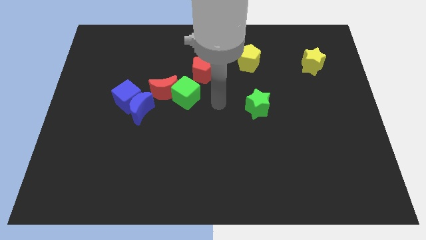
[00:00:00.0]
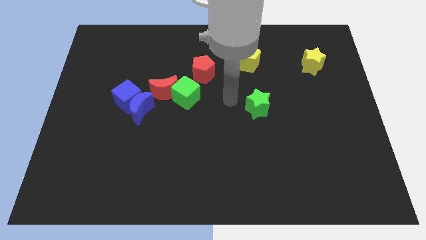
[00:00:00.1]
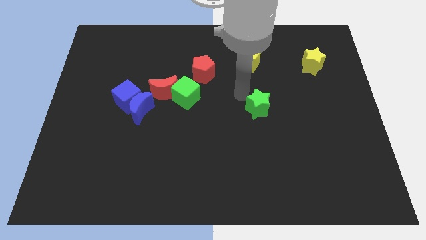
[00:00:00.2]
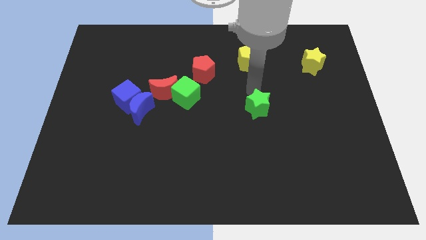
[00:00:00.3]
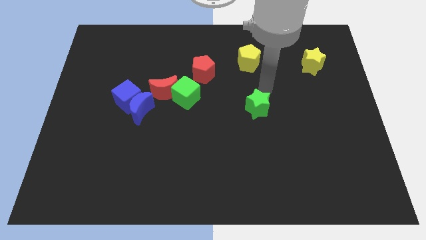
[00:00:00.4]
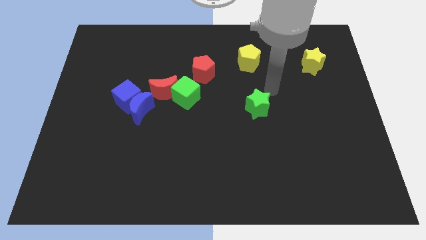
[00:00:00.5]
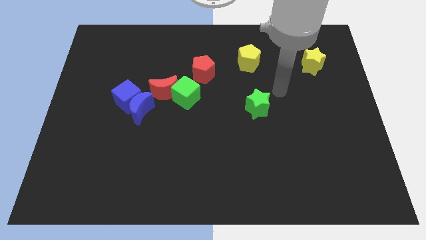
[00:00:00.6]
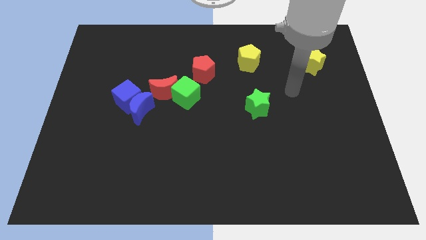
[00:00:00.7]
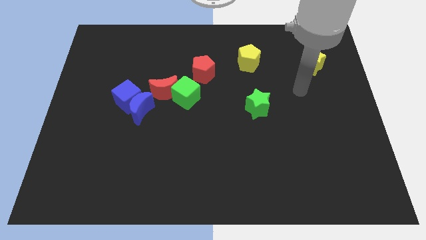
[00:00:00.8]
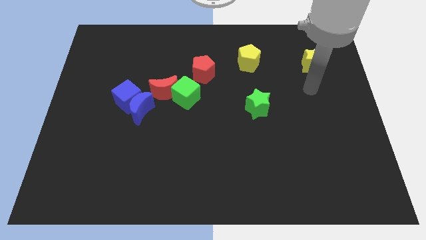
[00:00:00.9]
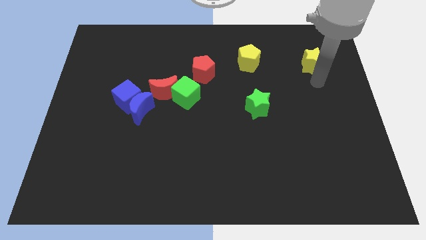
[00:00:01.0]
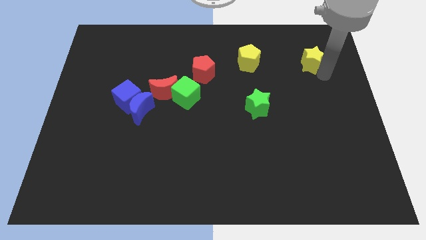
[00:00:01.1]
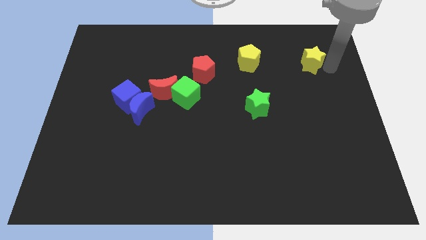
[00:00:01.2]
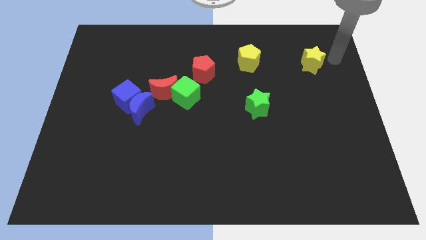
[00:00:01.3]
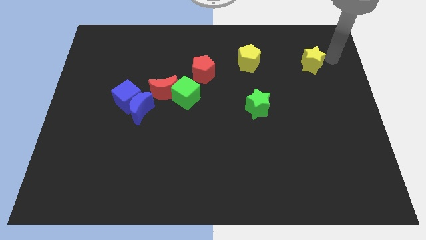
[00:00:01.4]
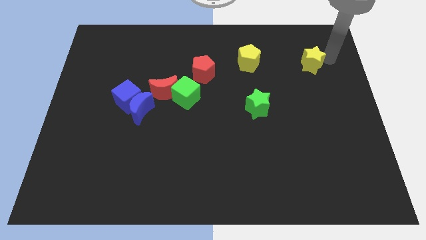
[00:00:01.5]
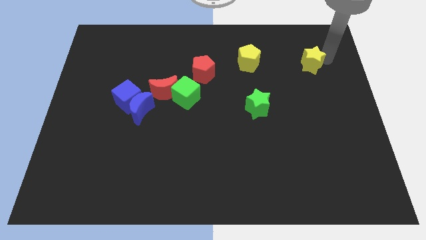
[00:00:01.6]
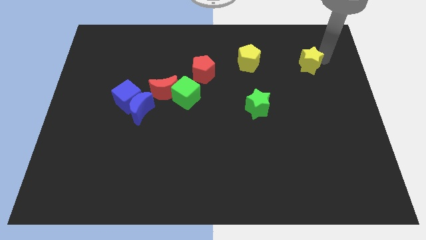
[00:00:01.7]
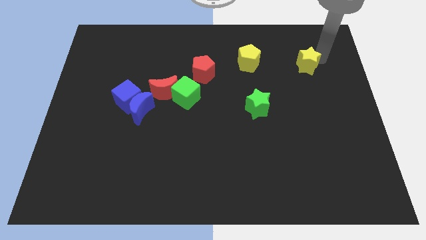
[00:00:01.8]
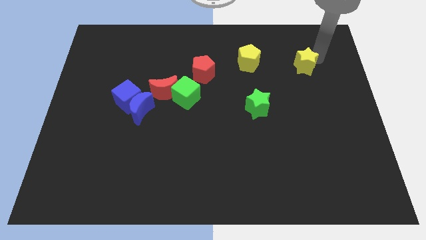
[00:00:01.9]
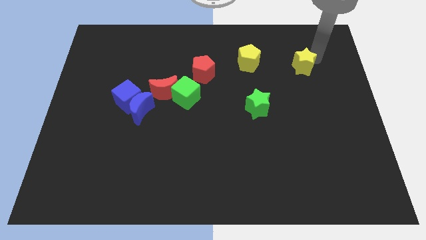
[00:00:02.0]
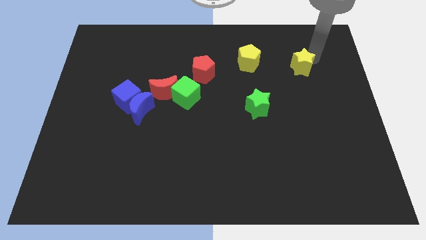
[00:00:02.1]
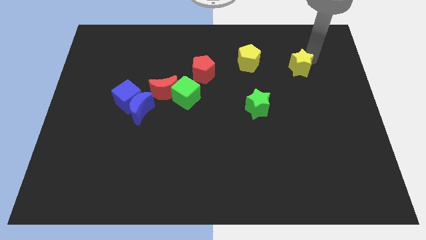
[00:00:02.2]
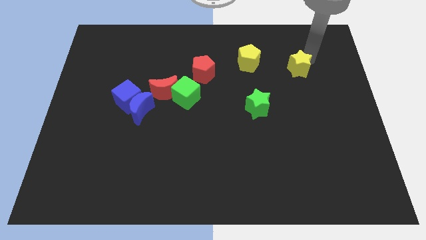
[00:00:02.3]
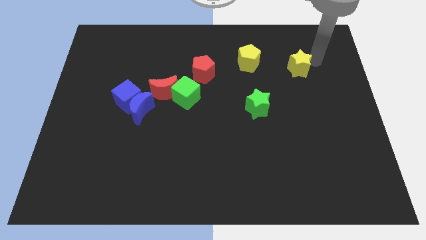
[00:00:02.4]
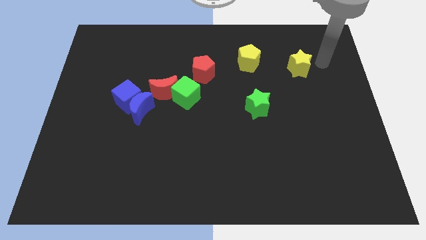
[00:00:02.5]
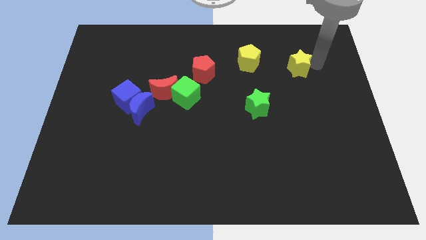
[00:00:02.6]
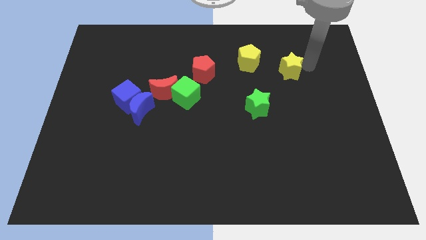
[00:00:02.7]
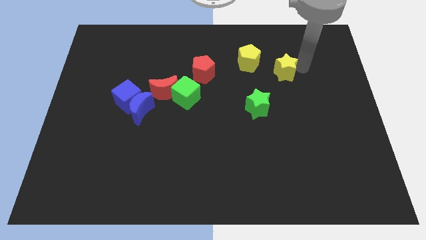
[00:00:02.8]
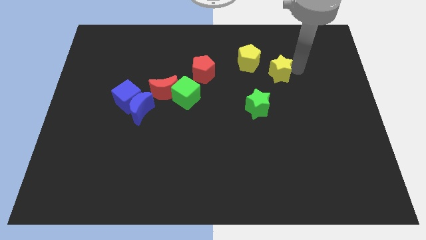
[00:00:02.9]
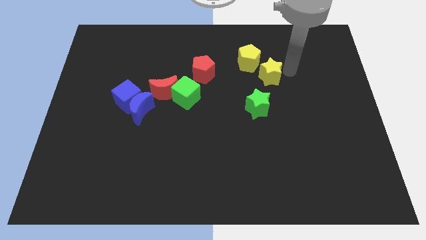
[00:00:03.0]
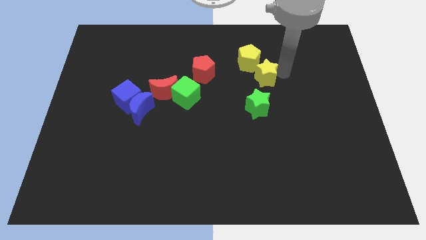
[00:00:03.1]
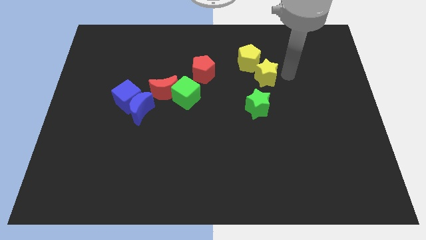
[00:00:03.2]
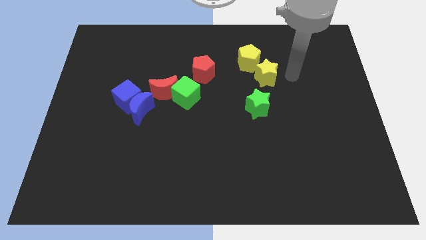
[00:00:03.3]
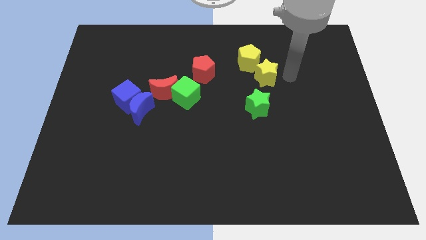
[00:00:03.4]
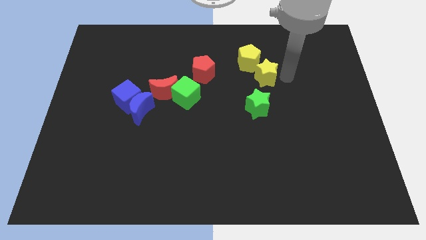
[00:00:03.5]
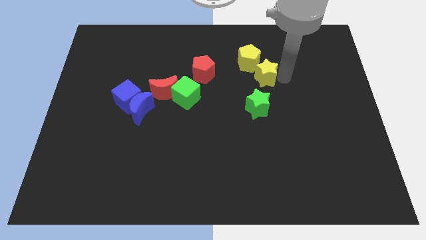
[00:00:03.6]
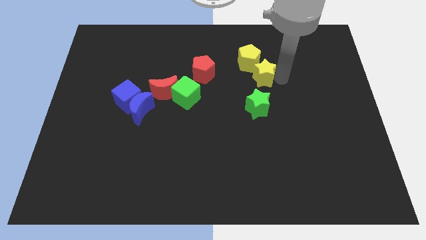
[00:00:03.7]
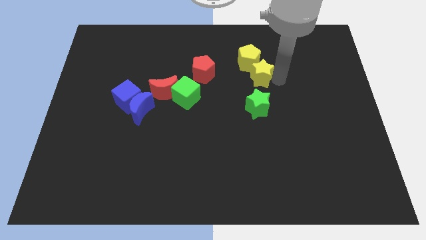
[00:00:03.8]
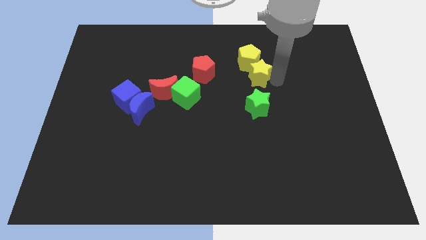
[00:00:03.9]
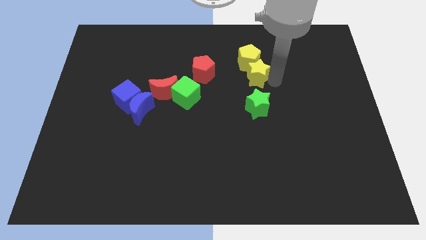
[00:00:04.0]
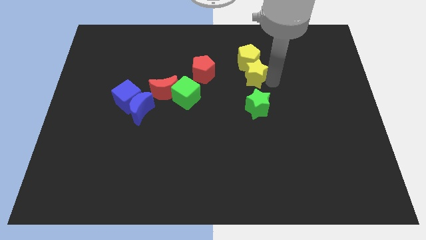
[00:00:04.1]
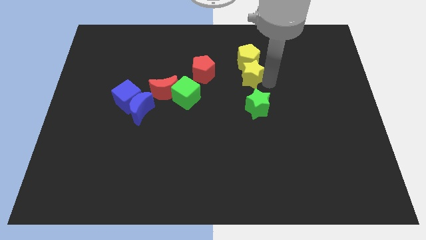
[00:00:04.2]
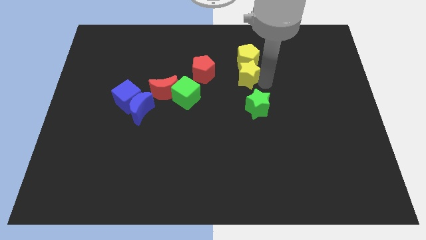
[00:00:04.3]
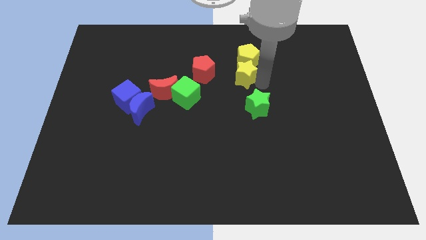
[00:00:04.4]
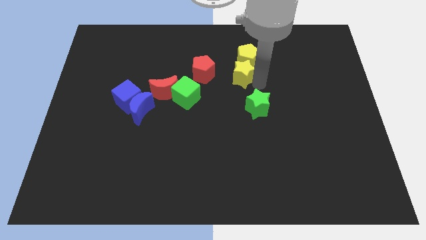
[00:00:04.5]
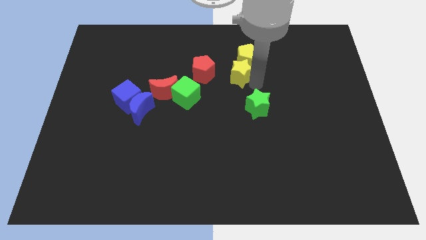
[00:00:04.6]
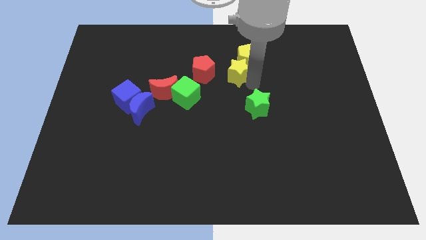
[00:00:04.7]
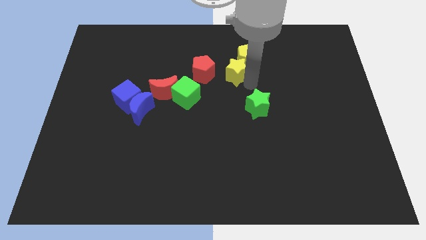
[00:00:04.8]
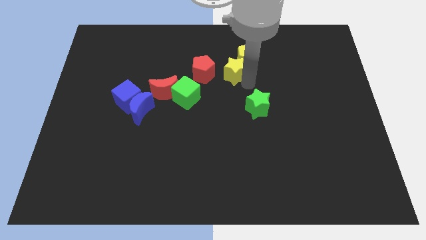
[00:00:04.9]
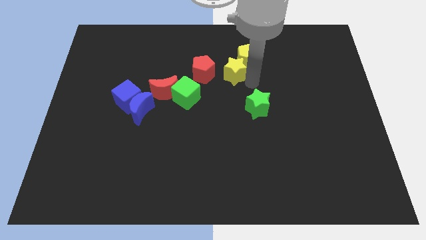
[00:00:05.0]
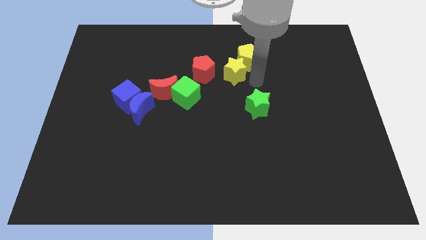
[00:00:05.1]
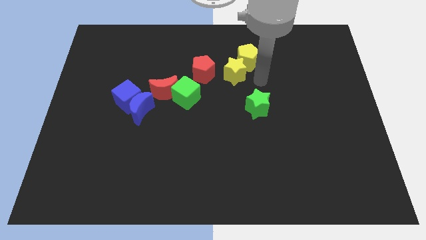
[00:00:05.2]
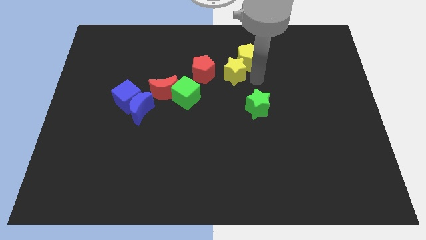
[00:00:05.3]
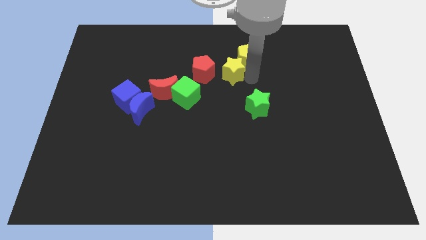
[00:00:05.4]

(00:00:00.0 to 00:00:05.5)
put the yellow star left of the yellow pentagon

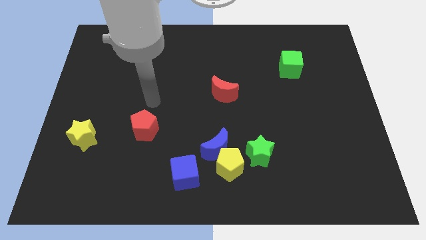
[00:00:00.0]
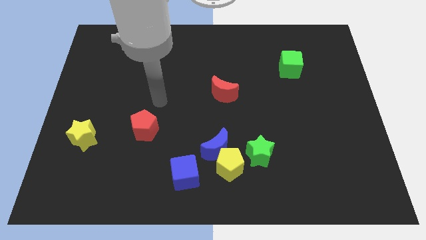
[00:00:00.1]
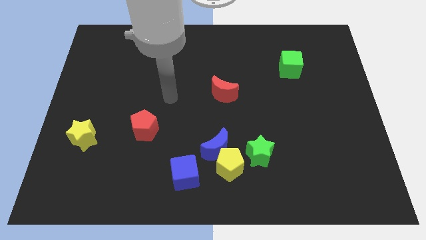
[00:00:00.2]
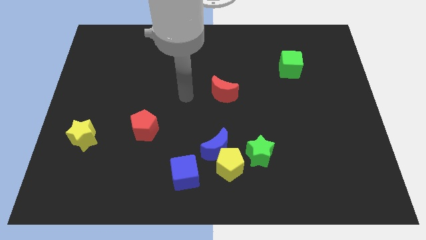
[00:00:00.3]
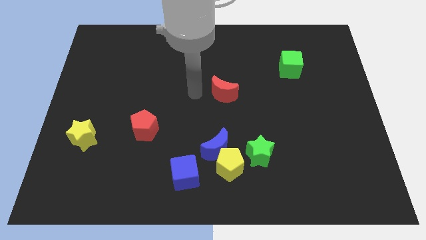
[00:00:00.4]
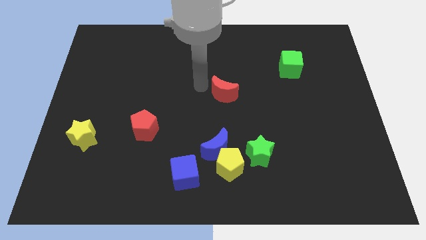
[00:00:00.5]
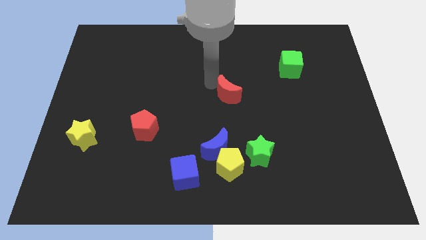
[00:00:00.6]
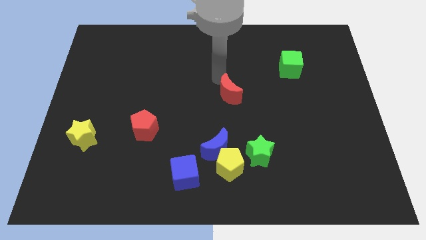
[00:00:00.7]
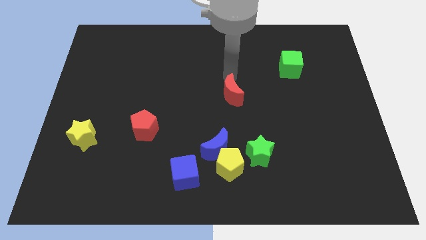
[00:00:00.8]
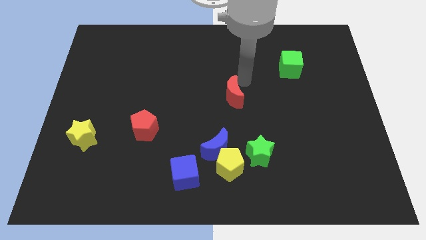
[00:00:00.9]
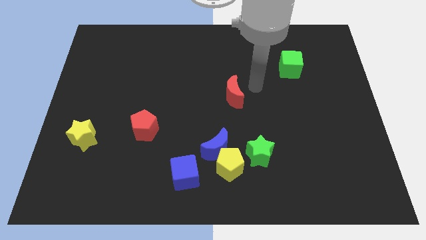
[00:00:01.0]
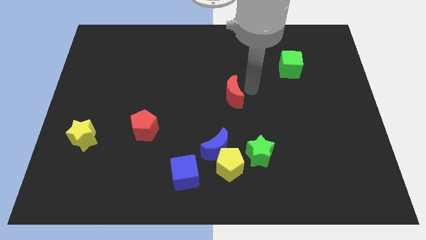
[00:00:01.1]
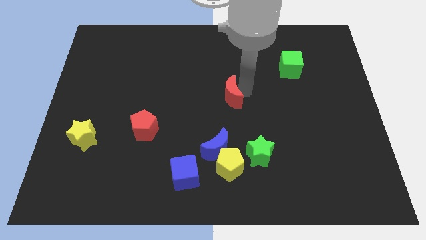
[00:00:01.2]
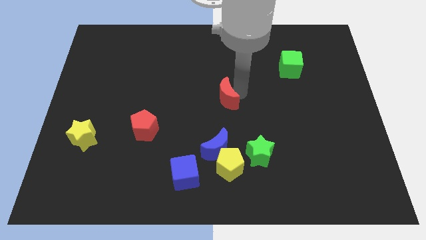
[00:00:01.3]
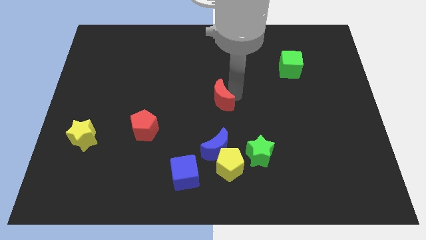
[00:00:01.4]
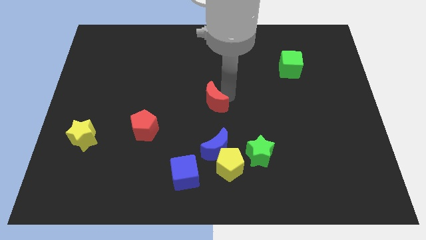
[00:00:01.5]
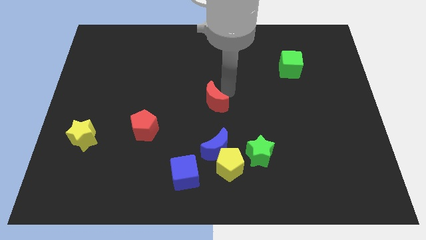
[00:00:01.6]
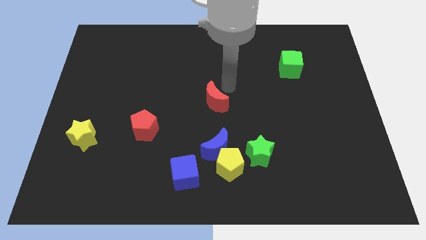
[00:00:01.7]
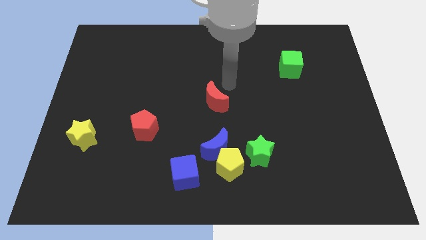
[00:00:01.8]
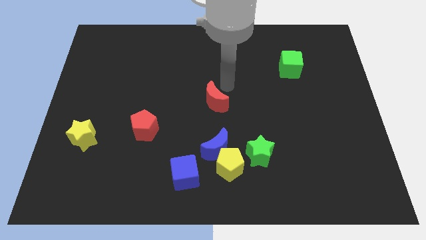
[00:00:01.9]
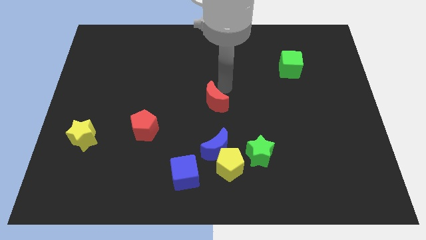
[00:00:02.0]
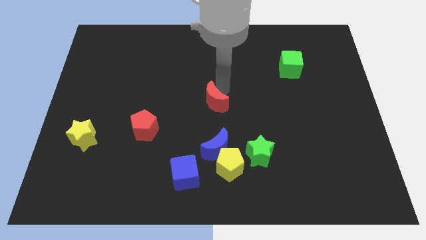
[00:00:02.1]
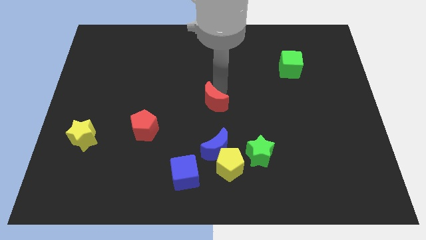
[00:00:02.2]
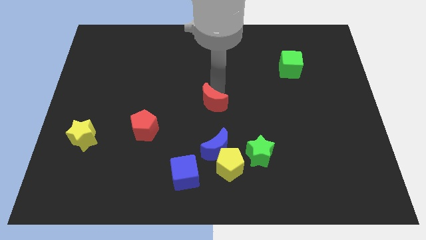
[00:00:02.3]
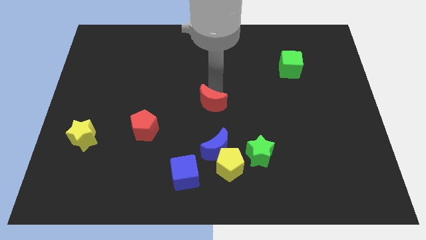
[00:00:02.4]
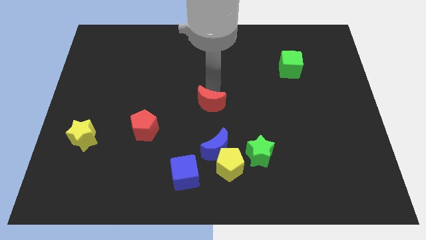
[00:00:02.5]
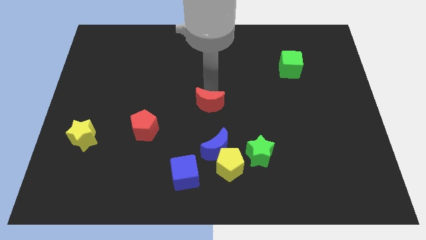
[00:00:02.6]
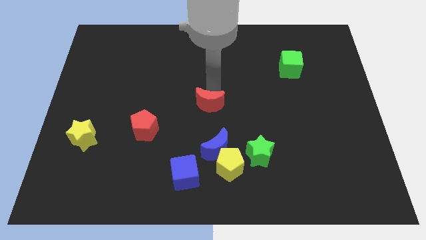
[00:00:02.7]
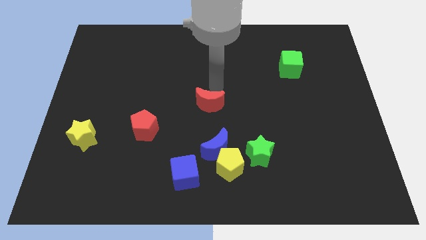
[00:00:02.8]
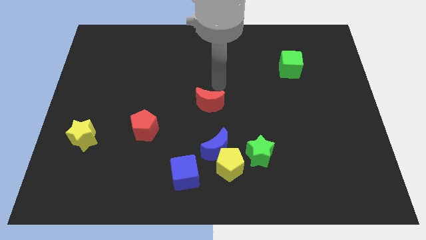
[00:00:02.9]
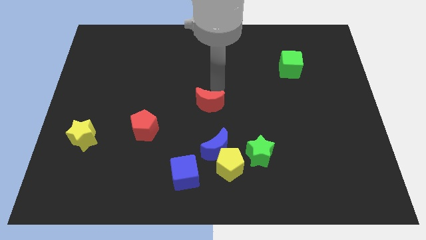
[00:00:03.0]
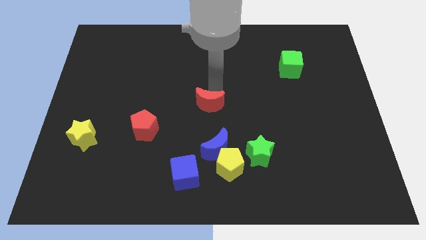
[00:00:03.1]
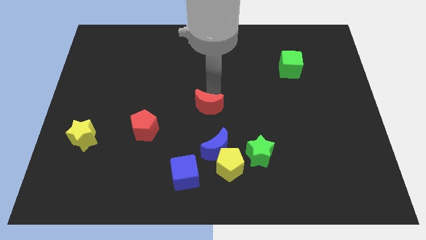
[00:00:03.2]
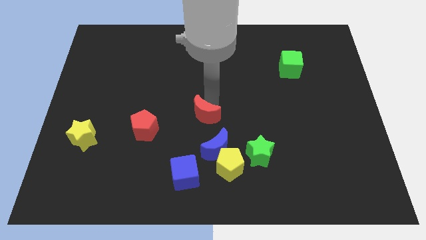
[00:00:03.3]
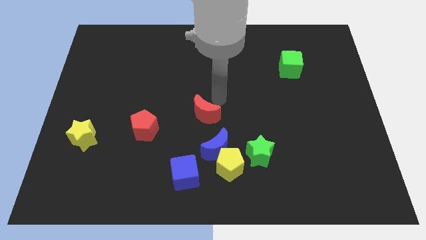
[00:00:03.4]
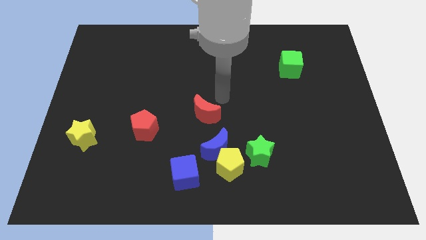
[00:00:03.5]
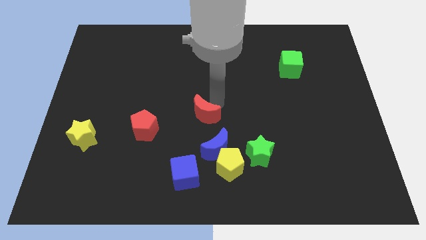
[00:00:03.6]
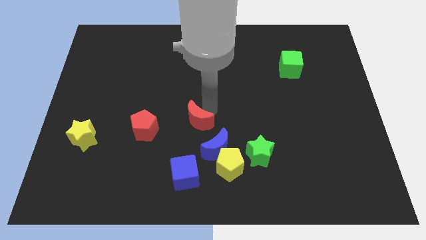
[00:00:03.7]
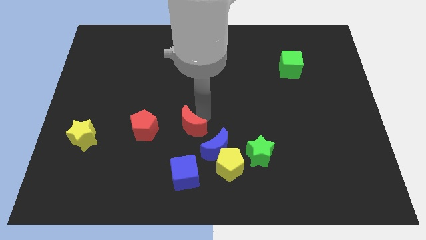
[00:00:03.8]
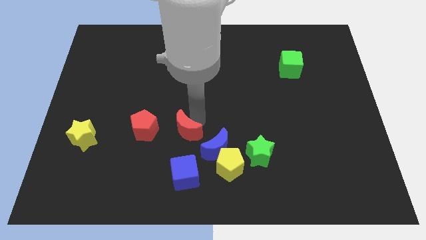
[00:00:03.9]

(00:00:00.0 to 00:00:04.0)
slide the red moon to the left of the blue moon
